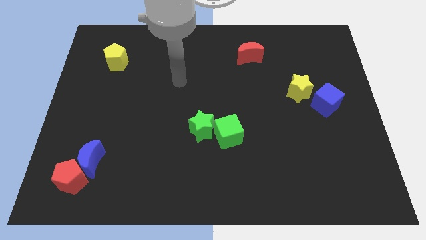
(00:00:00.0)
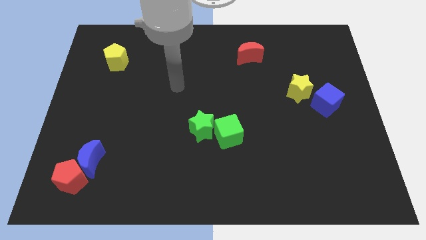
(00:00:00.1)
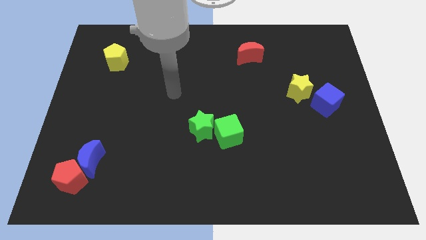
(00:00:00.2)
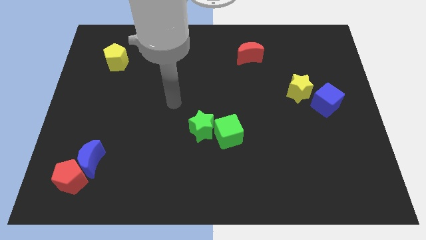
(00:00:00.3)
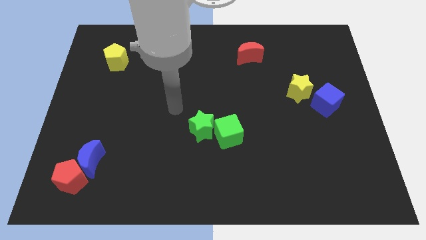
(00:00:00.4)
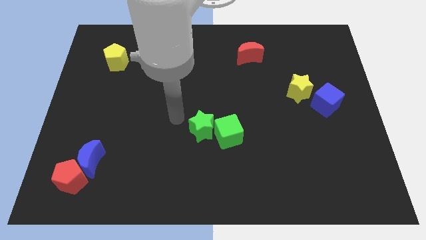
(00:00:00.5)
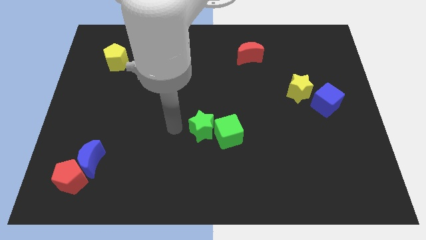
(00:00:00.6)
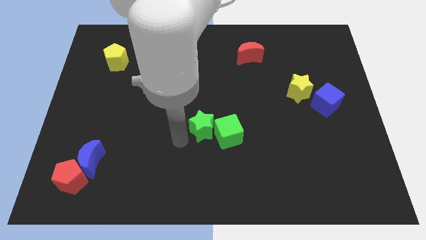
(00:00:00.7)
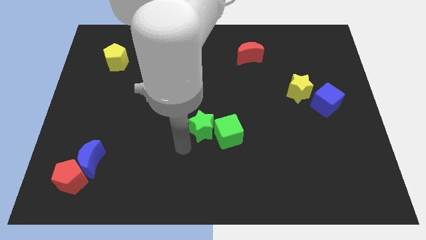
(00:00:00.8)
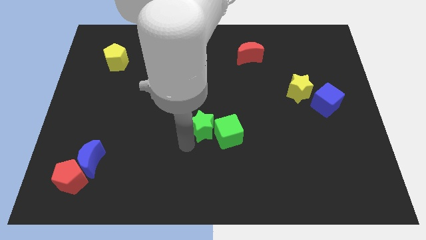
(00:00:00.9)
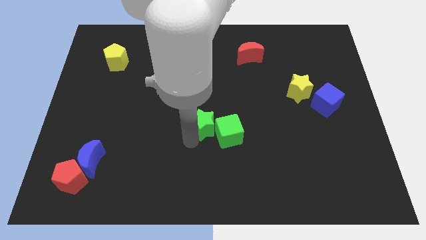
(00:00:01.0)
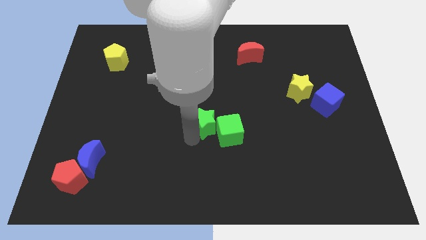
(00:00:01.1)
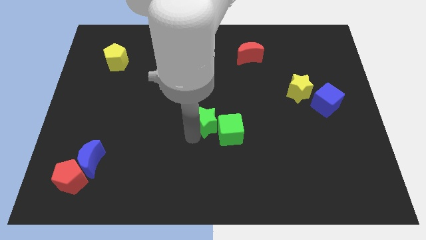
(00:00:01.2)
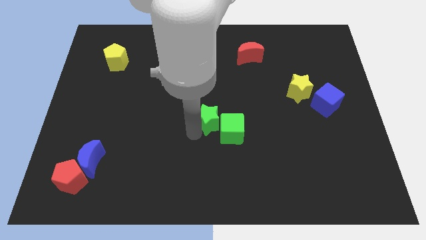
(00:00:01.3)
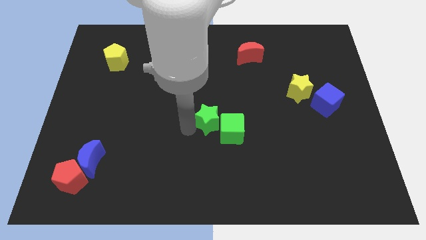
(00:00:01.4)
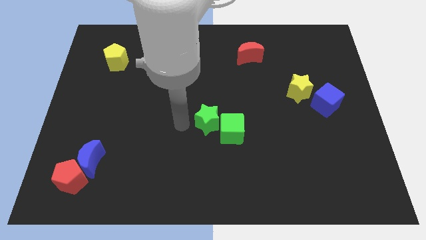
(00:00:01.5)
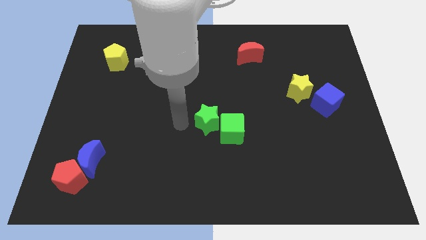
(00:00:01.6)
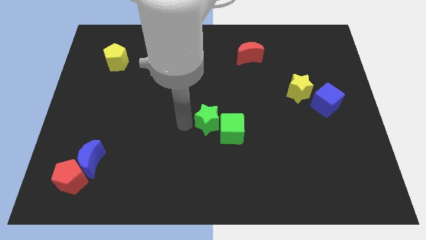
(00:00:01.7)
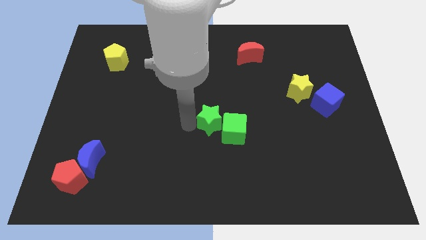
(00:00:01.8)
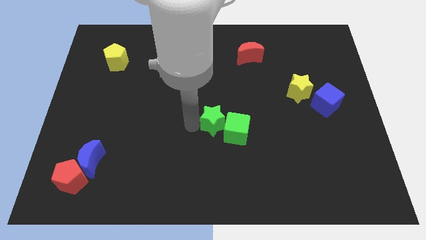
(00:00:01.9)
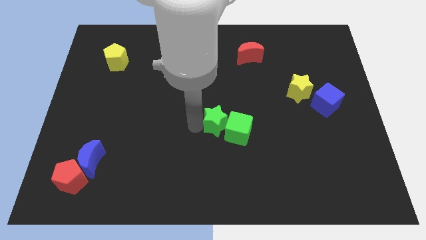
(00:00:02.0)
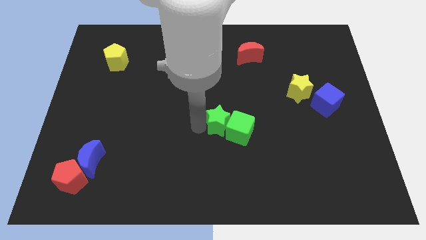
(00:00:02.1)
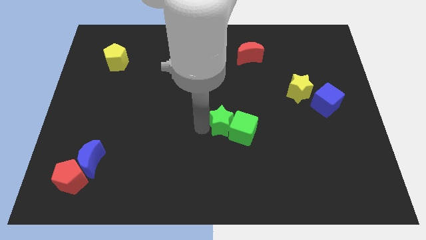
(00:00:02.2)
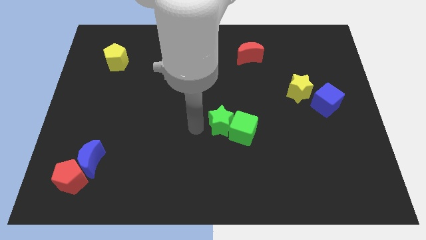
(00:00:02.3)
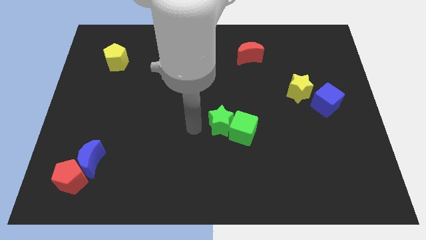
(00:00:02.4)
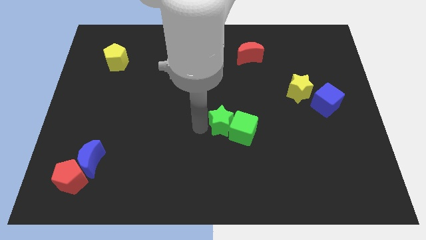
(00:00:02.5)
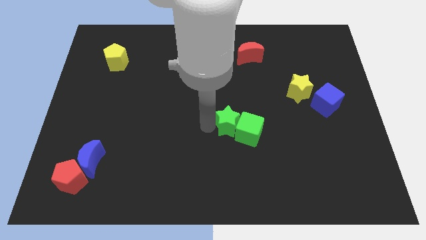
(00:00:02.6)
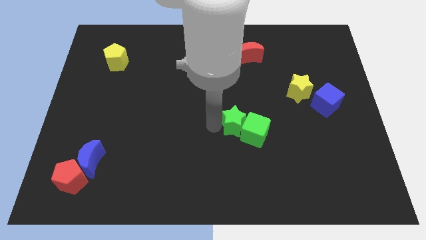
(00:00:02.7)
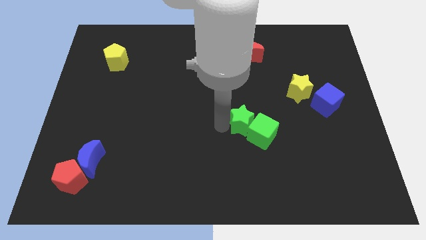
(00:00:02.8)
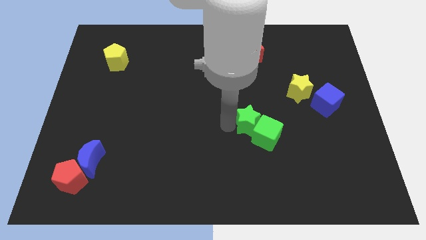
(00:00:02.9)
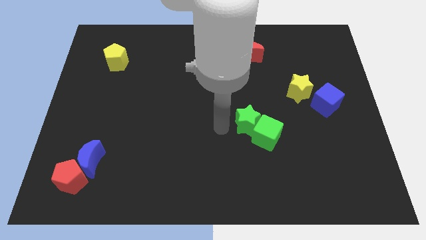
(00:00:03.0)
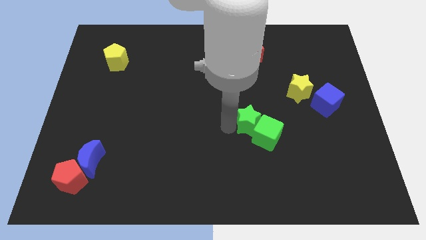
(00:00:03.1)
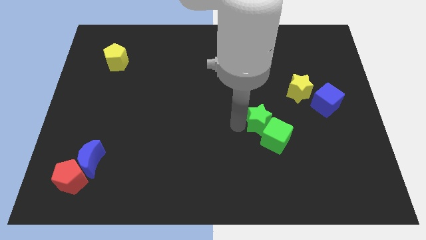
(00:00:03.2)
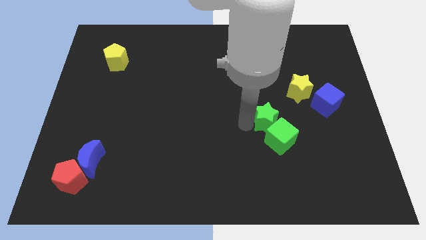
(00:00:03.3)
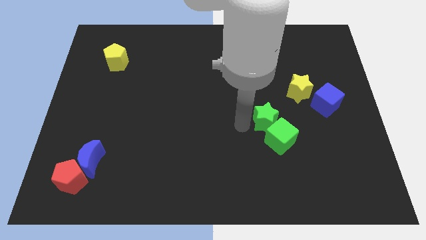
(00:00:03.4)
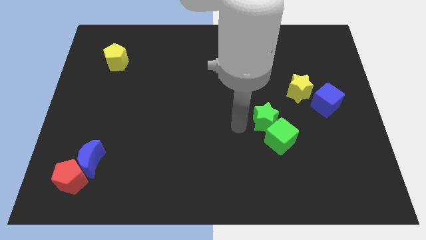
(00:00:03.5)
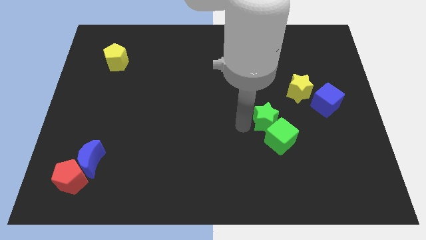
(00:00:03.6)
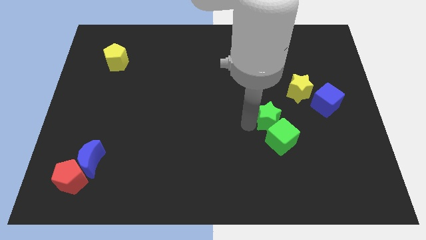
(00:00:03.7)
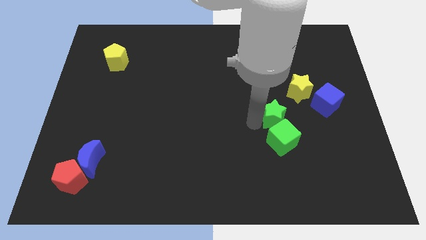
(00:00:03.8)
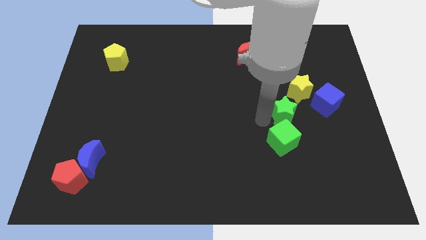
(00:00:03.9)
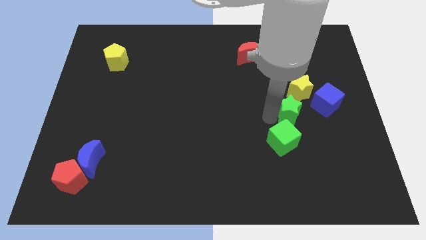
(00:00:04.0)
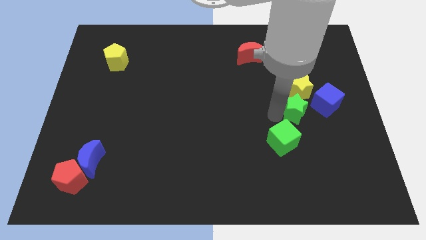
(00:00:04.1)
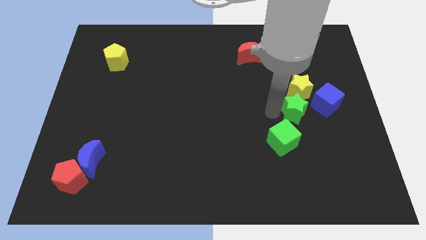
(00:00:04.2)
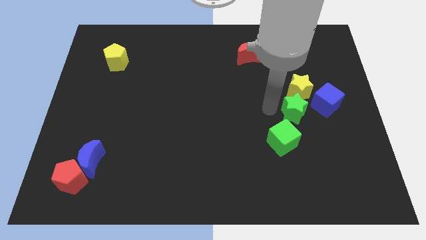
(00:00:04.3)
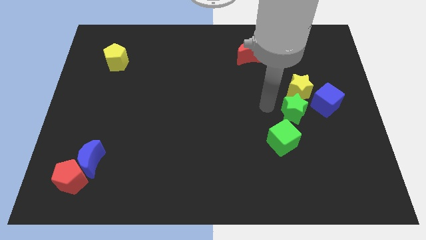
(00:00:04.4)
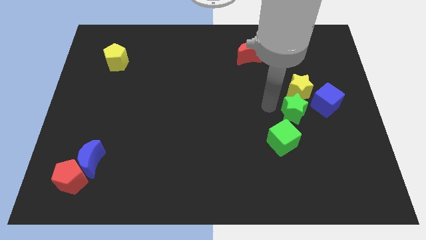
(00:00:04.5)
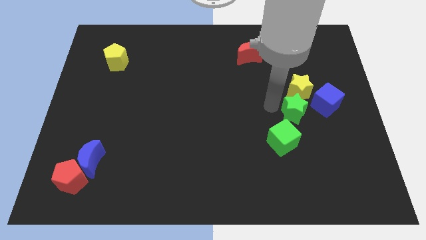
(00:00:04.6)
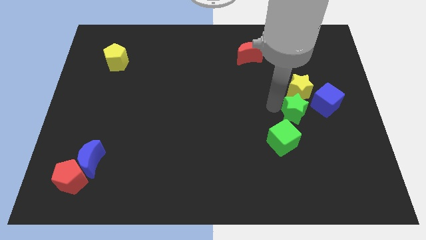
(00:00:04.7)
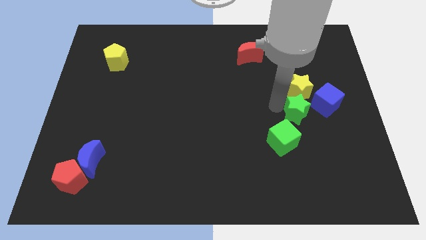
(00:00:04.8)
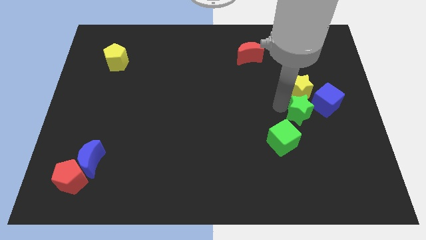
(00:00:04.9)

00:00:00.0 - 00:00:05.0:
push the green star diagonally down and to the right of the yellow star

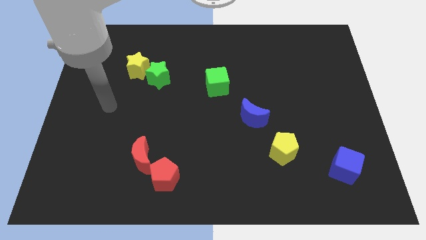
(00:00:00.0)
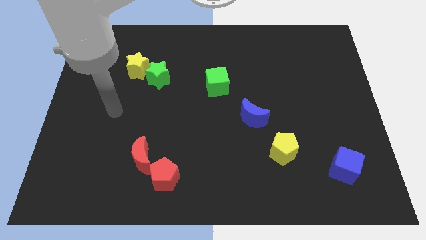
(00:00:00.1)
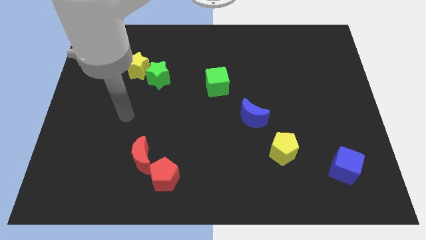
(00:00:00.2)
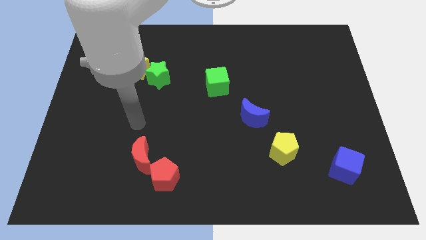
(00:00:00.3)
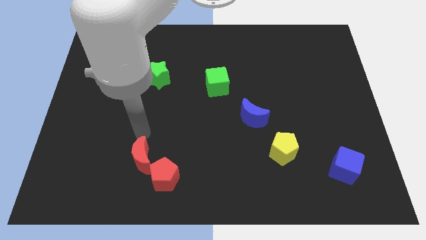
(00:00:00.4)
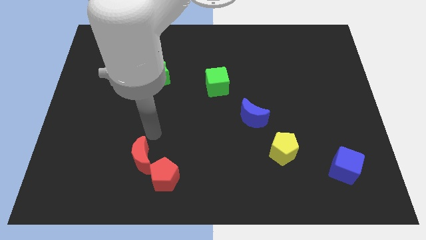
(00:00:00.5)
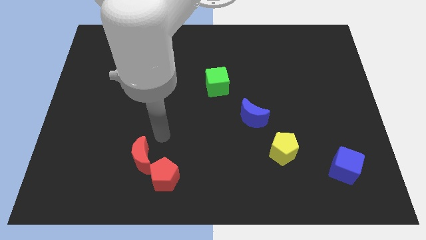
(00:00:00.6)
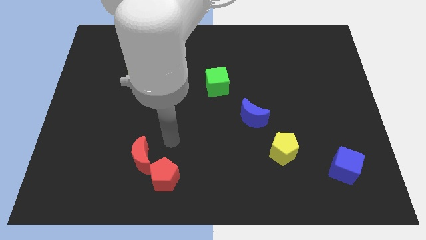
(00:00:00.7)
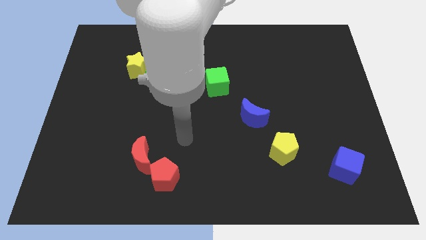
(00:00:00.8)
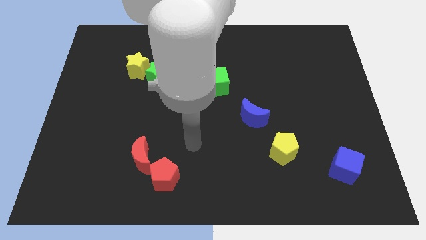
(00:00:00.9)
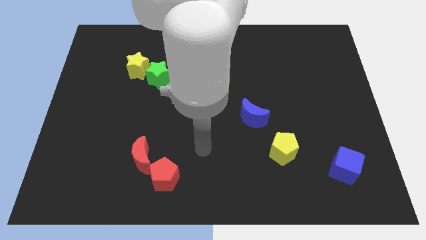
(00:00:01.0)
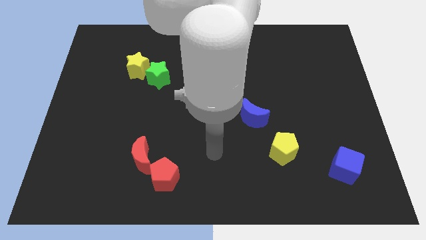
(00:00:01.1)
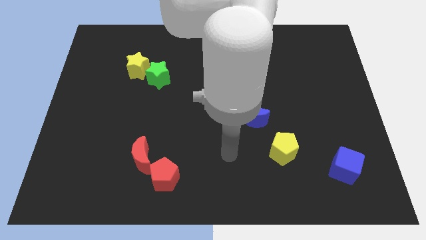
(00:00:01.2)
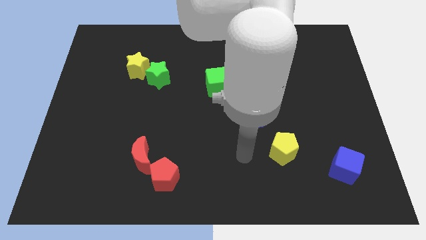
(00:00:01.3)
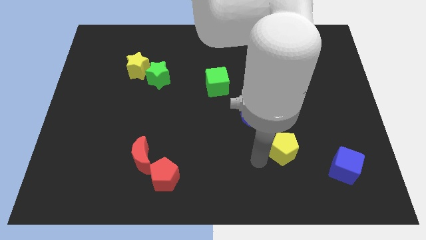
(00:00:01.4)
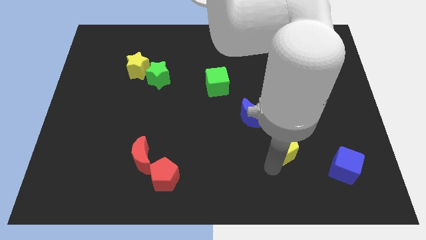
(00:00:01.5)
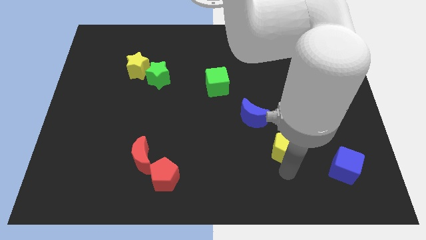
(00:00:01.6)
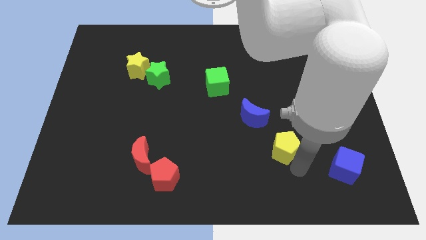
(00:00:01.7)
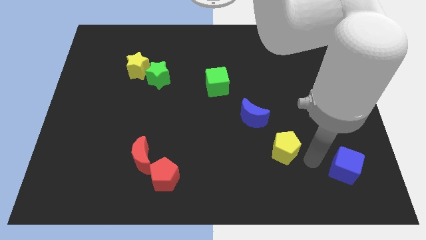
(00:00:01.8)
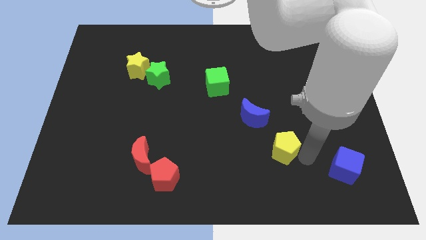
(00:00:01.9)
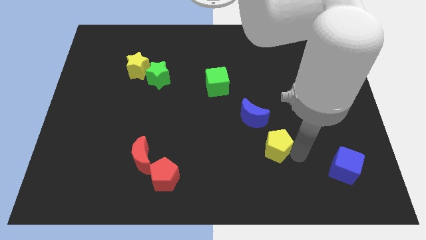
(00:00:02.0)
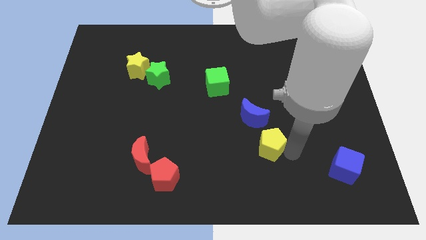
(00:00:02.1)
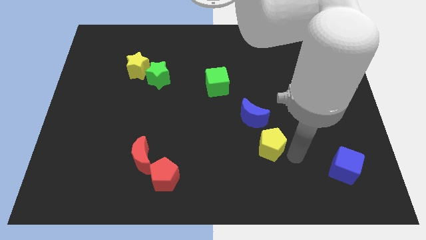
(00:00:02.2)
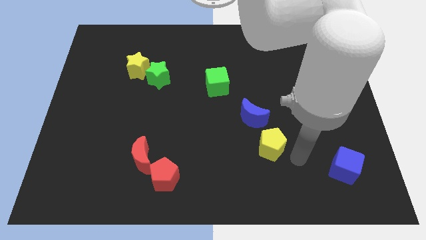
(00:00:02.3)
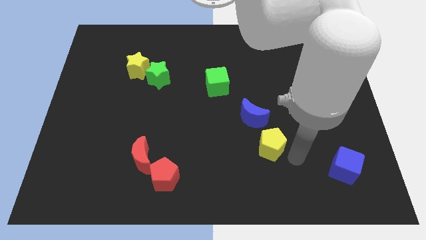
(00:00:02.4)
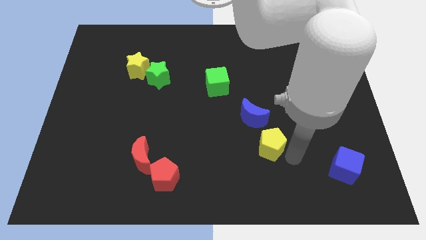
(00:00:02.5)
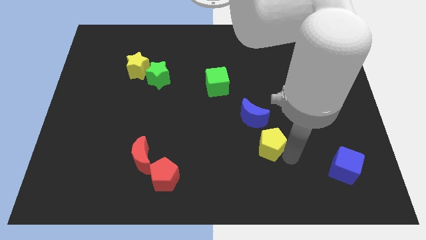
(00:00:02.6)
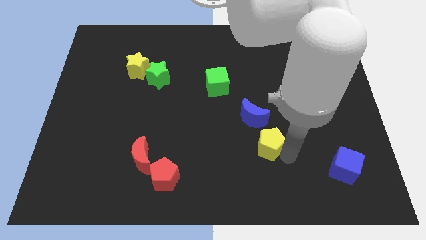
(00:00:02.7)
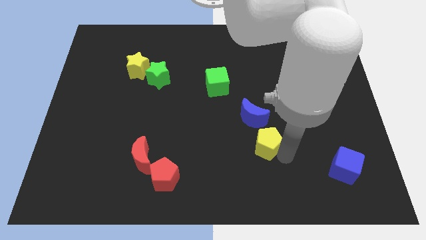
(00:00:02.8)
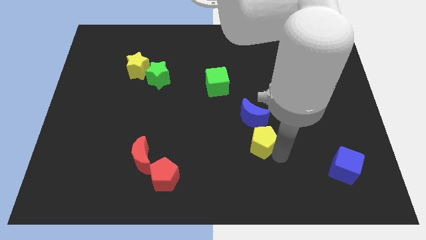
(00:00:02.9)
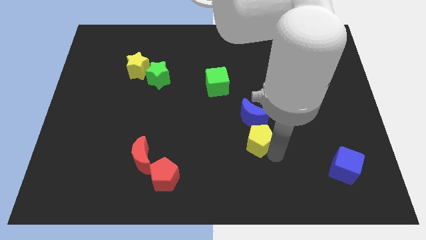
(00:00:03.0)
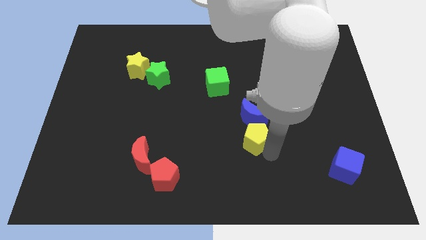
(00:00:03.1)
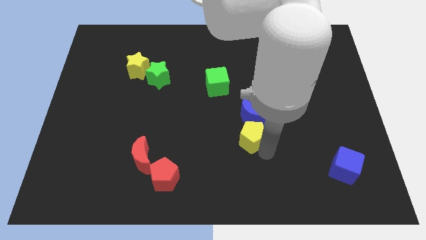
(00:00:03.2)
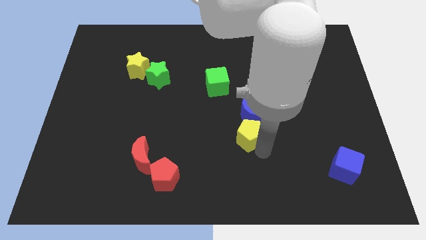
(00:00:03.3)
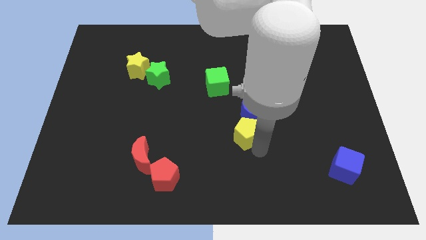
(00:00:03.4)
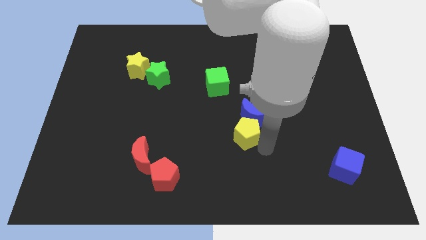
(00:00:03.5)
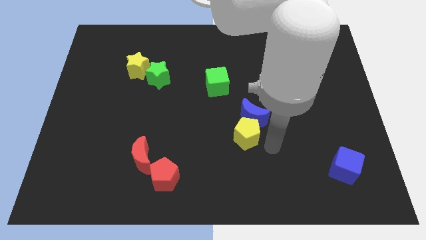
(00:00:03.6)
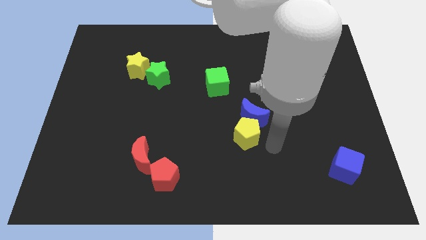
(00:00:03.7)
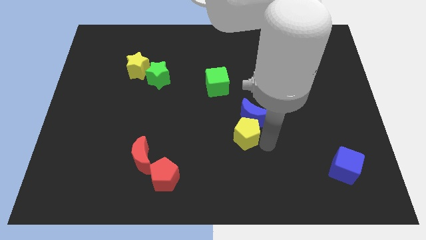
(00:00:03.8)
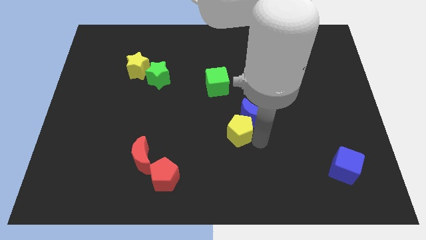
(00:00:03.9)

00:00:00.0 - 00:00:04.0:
slide the yellow pentagon left of the blue moon
